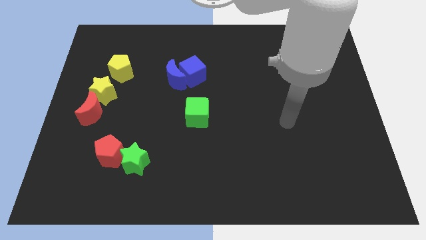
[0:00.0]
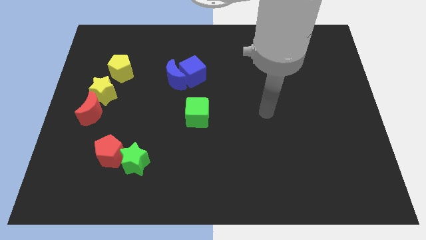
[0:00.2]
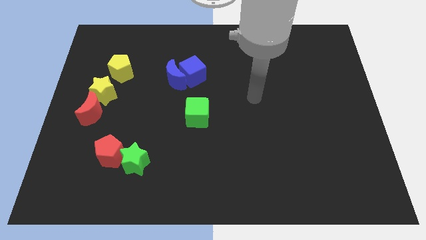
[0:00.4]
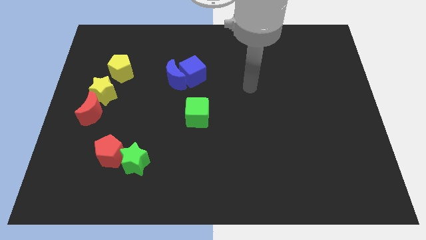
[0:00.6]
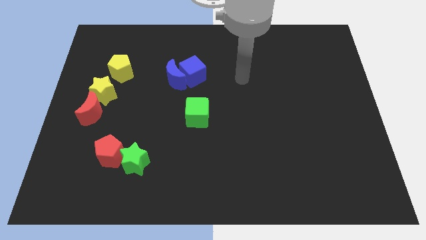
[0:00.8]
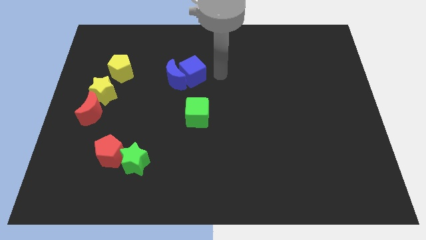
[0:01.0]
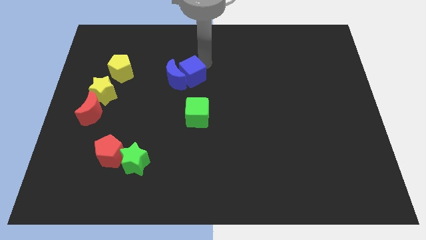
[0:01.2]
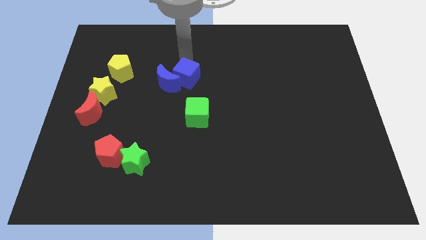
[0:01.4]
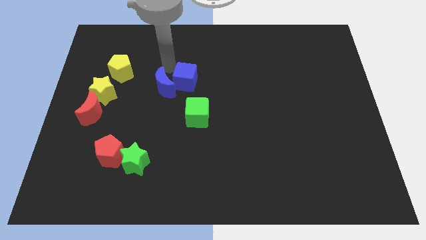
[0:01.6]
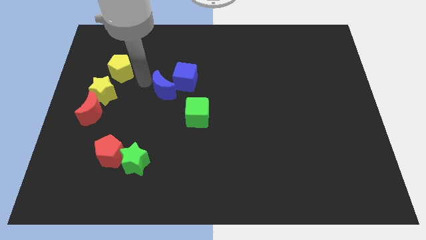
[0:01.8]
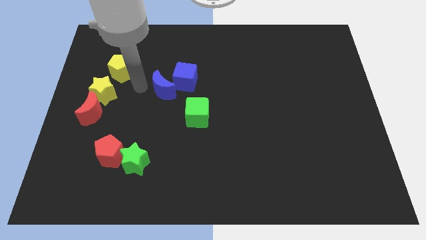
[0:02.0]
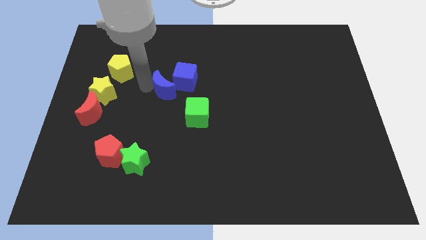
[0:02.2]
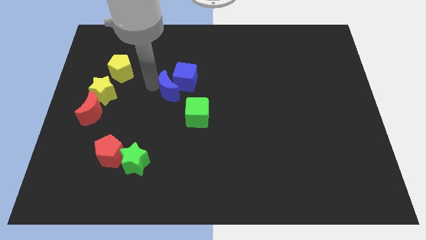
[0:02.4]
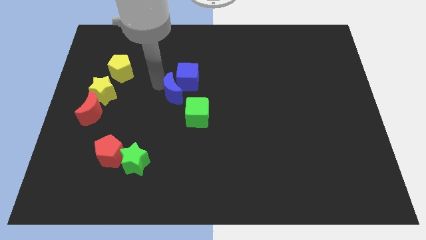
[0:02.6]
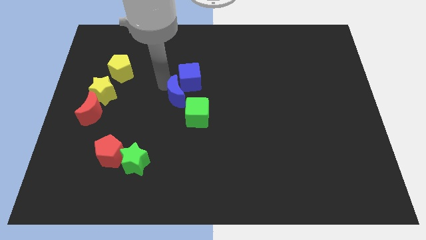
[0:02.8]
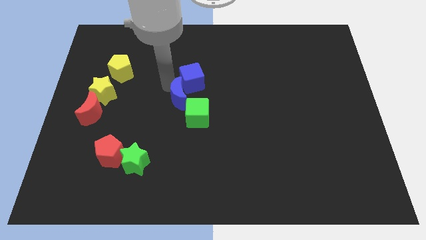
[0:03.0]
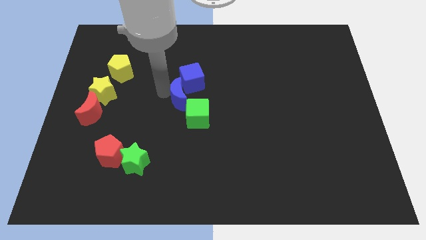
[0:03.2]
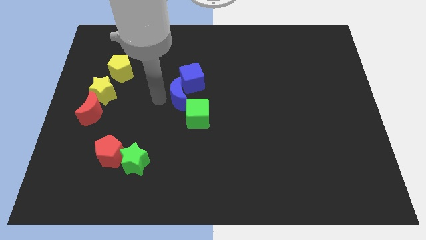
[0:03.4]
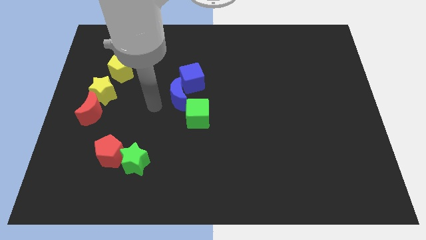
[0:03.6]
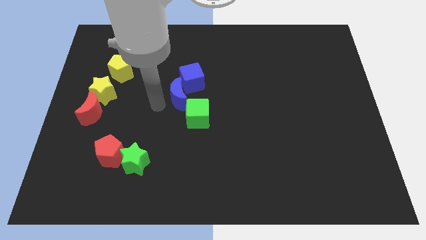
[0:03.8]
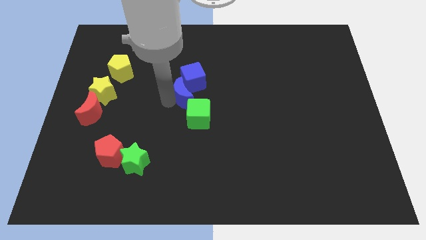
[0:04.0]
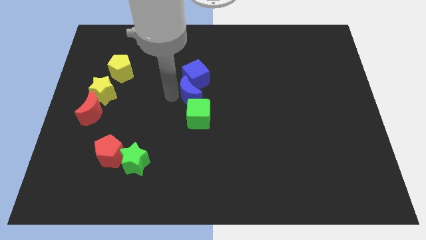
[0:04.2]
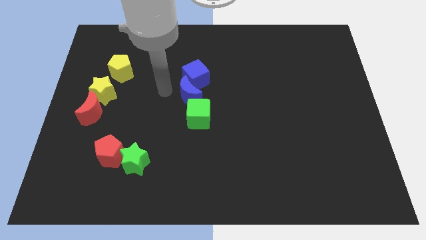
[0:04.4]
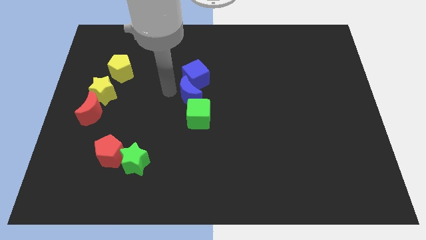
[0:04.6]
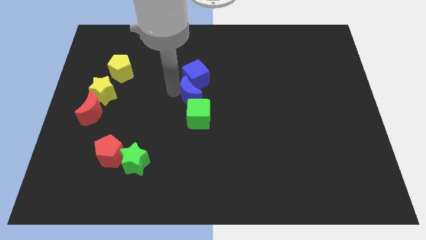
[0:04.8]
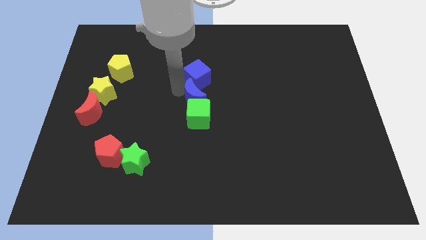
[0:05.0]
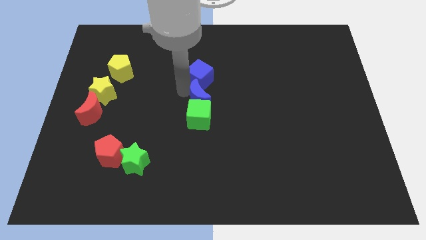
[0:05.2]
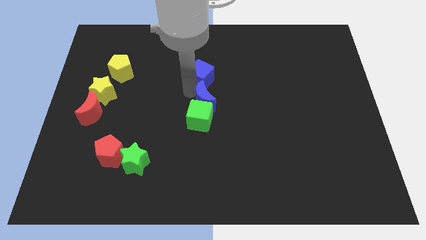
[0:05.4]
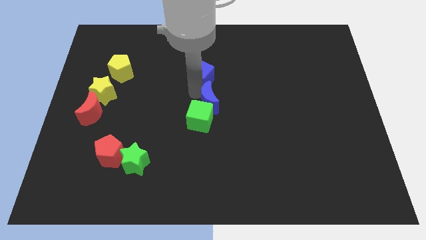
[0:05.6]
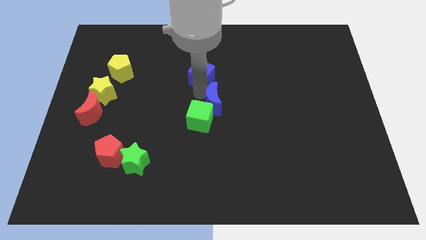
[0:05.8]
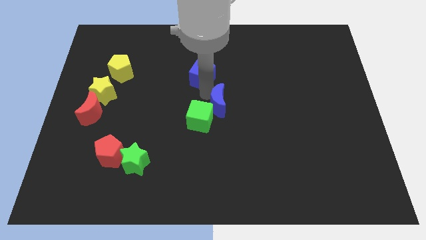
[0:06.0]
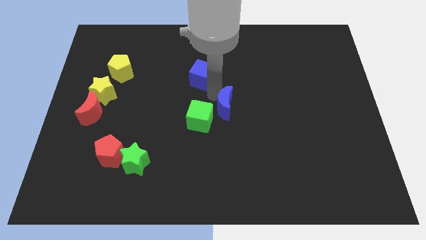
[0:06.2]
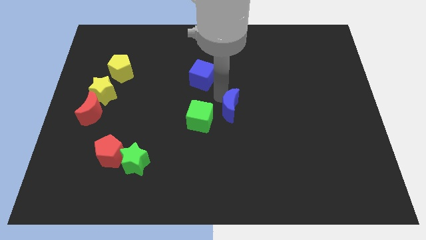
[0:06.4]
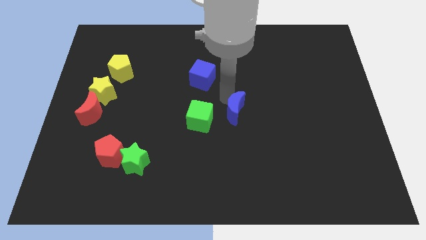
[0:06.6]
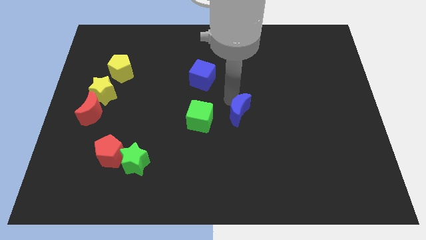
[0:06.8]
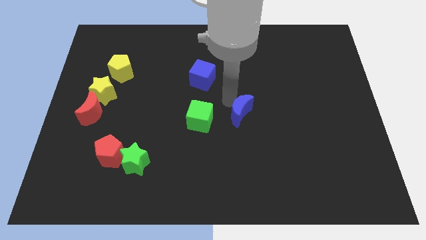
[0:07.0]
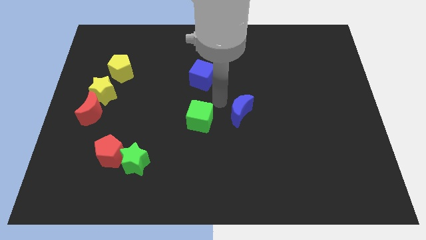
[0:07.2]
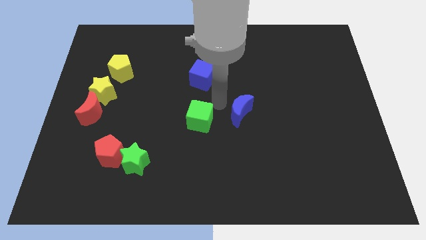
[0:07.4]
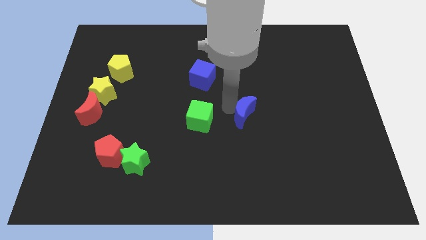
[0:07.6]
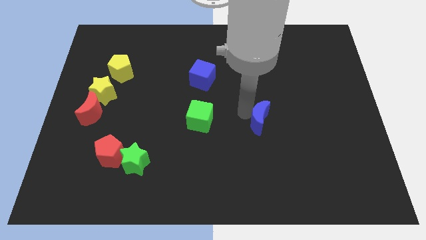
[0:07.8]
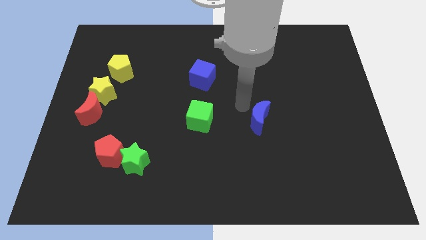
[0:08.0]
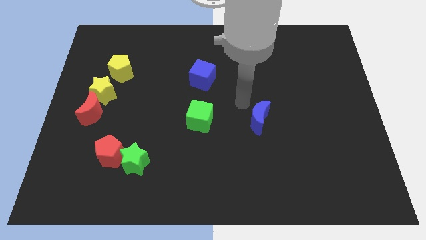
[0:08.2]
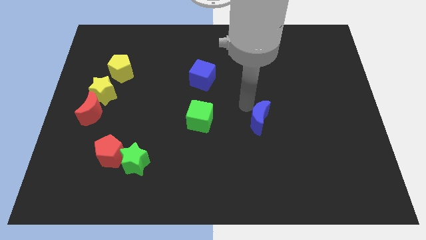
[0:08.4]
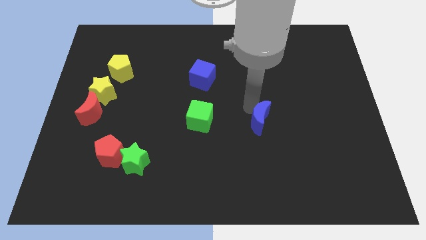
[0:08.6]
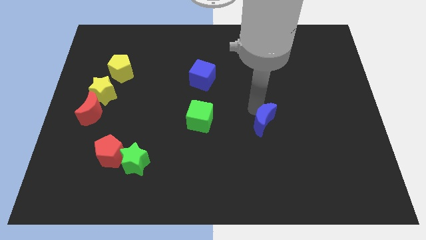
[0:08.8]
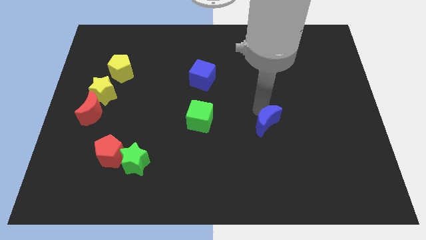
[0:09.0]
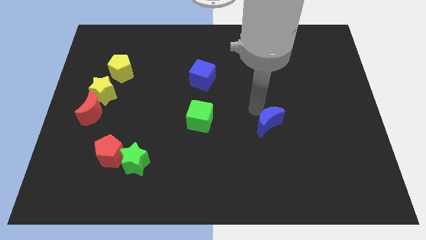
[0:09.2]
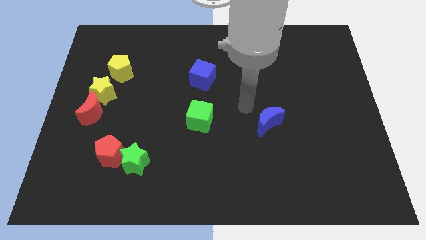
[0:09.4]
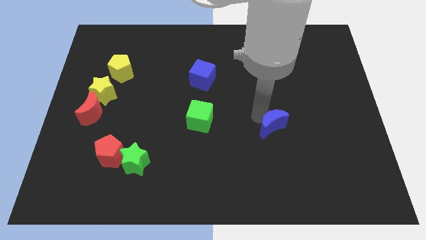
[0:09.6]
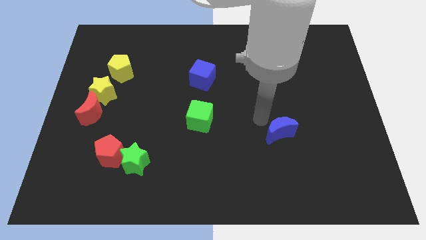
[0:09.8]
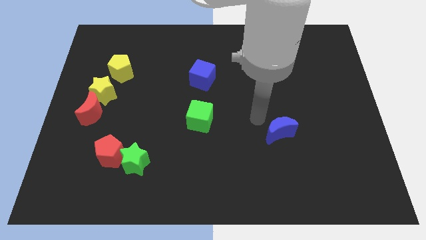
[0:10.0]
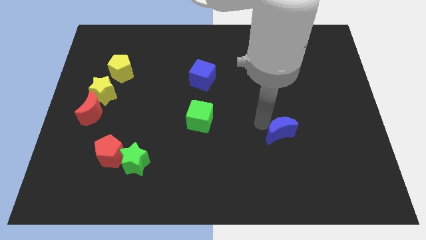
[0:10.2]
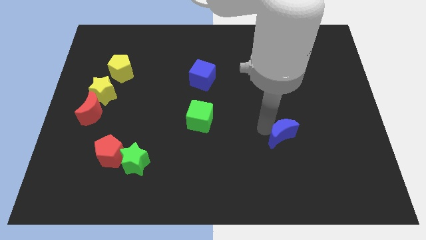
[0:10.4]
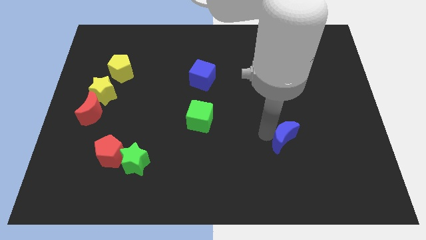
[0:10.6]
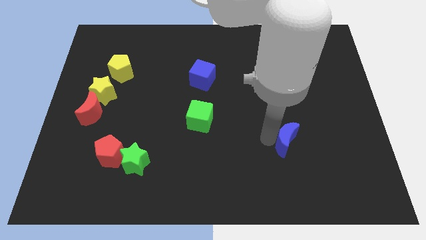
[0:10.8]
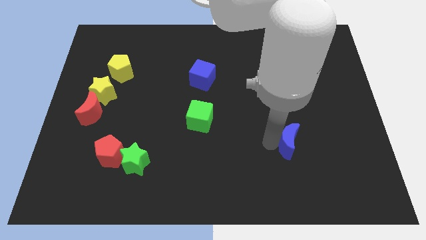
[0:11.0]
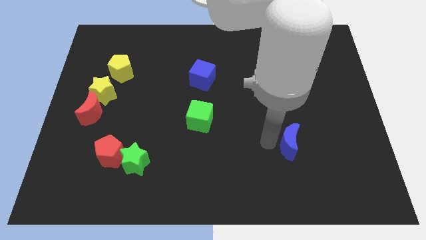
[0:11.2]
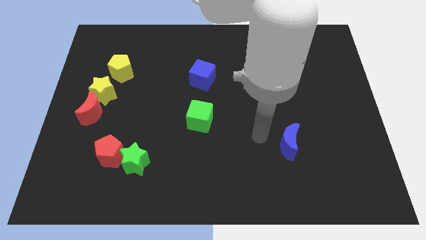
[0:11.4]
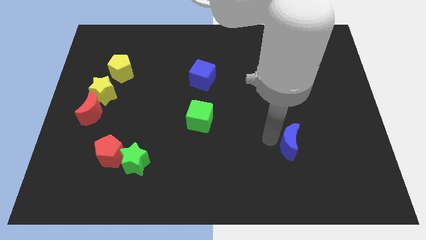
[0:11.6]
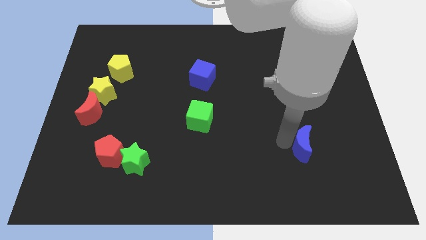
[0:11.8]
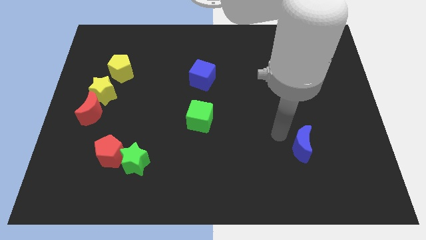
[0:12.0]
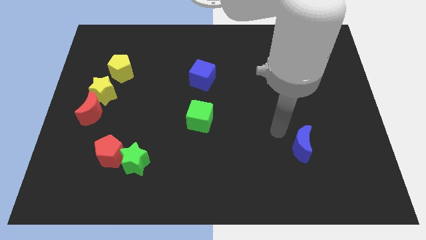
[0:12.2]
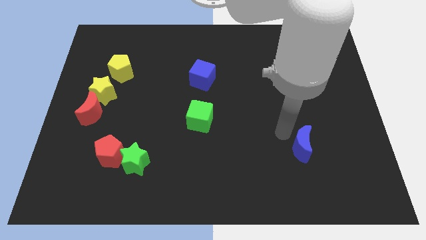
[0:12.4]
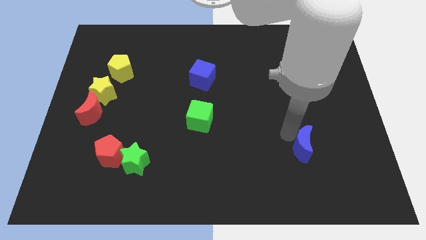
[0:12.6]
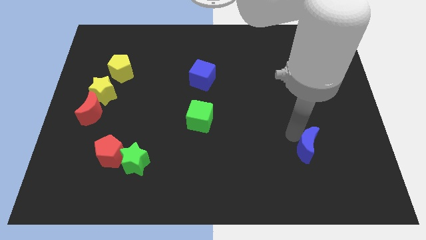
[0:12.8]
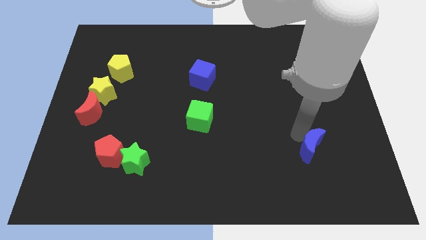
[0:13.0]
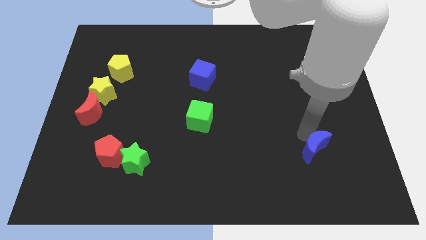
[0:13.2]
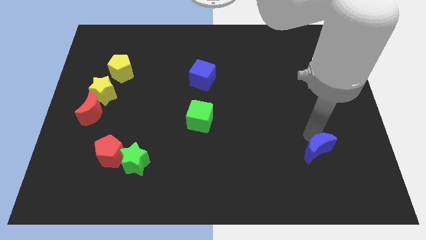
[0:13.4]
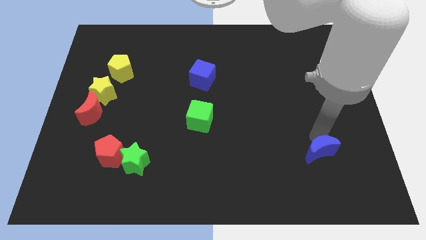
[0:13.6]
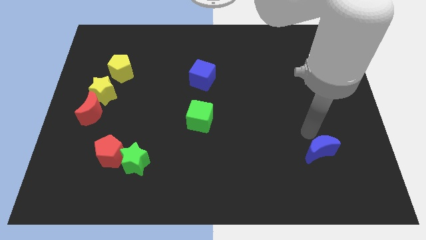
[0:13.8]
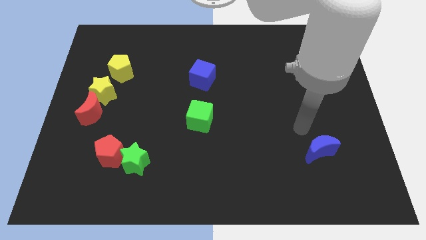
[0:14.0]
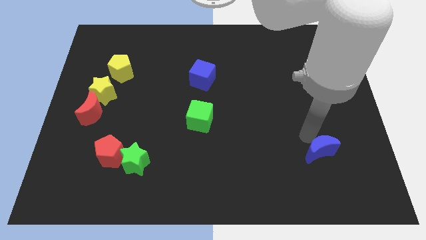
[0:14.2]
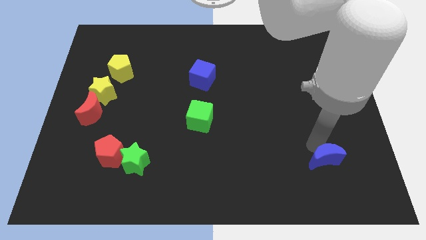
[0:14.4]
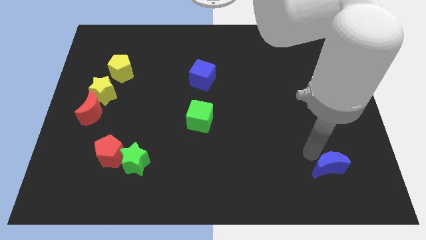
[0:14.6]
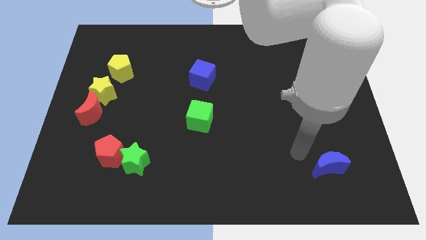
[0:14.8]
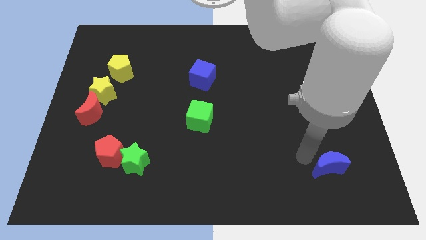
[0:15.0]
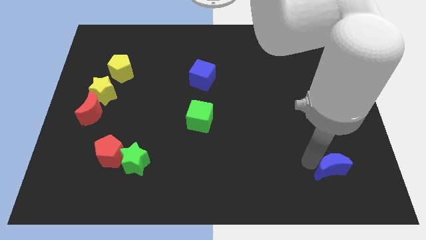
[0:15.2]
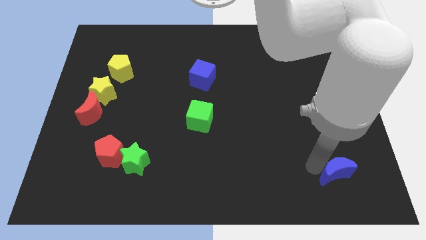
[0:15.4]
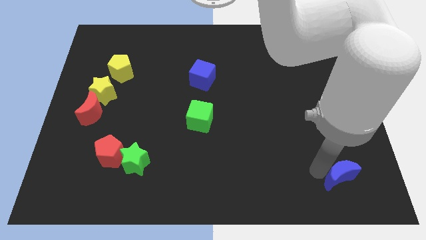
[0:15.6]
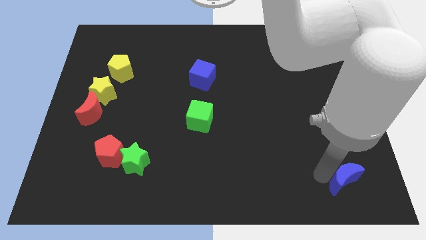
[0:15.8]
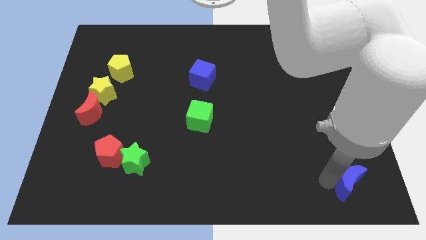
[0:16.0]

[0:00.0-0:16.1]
put the blue moon to the lower right corner
